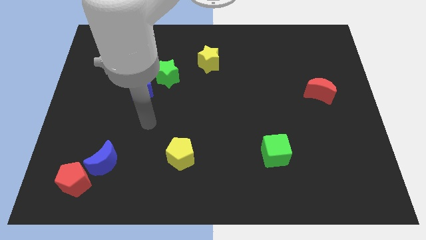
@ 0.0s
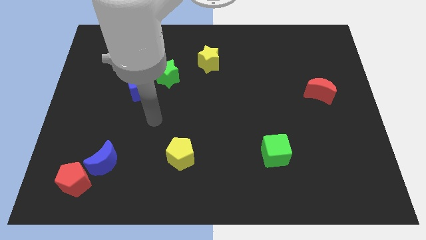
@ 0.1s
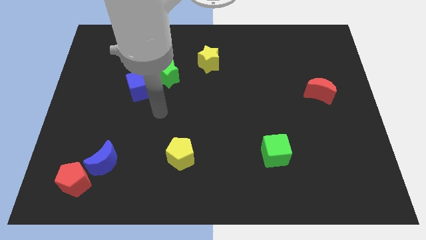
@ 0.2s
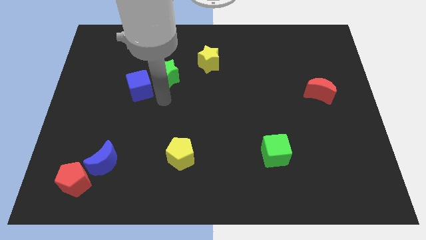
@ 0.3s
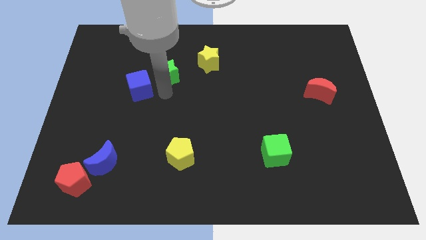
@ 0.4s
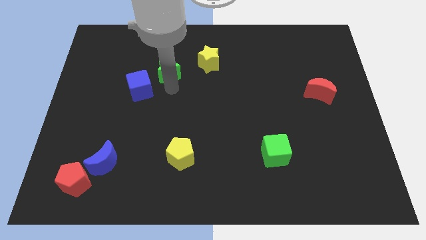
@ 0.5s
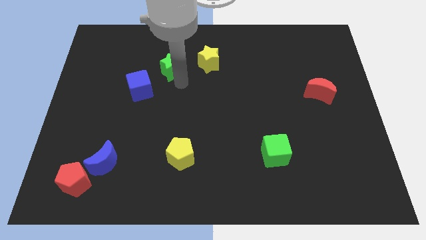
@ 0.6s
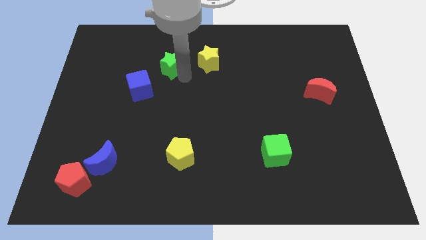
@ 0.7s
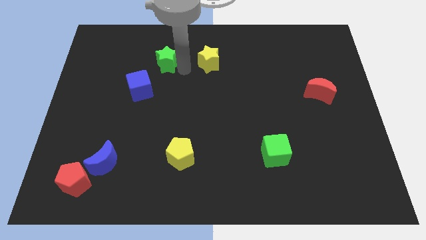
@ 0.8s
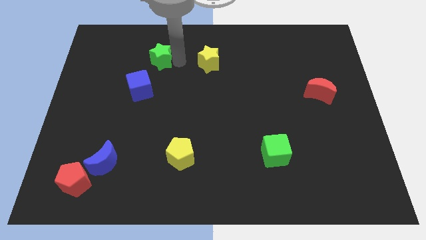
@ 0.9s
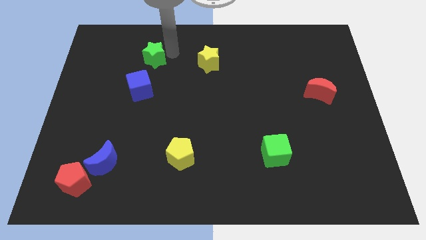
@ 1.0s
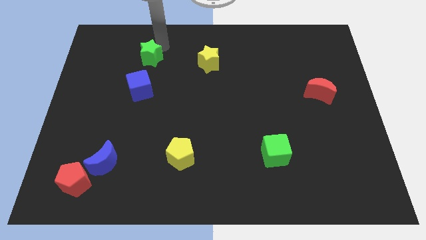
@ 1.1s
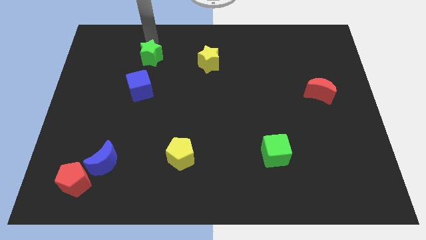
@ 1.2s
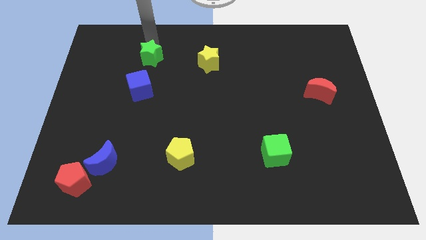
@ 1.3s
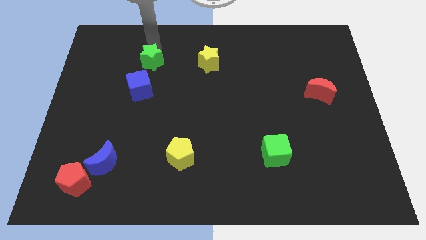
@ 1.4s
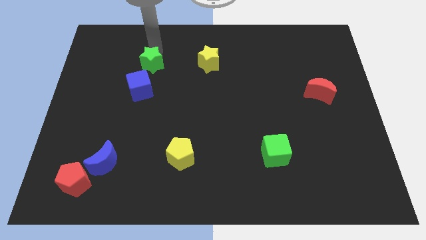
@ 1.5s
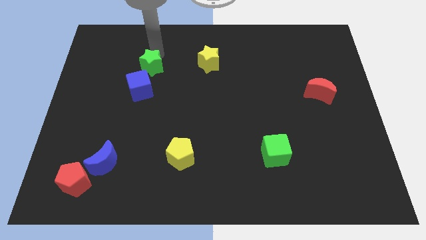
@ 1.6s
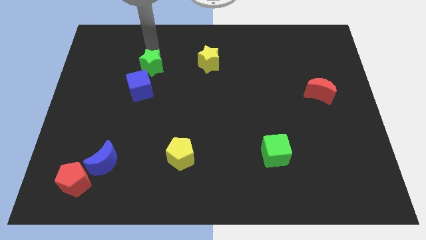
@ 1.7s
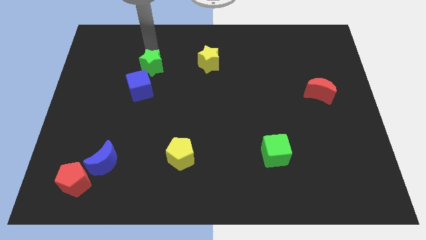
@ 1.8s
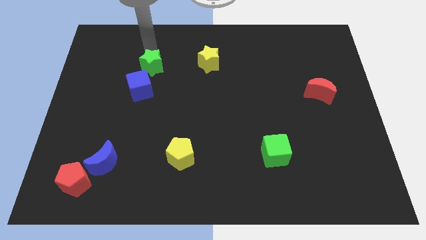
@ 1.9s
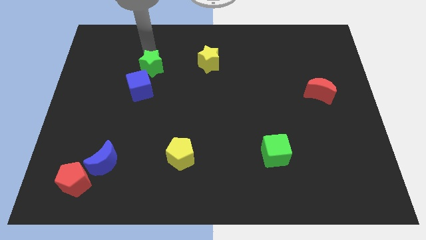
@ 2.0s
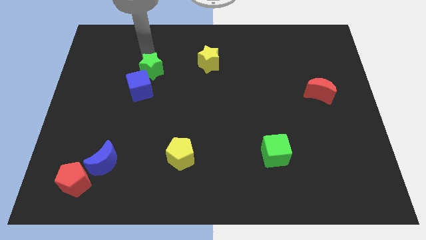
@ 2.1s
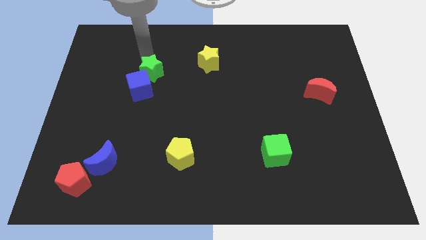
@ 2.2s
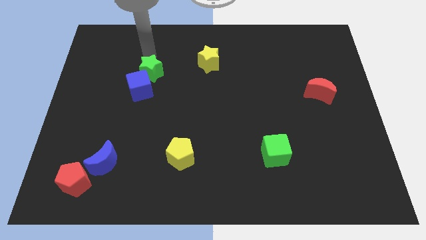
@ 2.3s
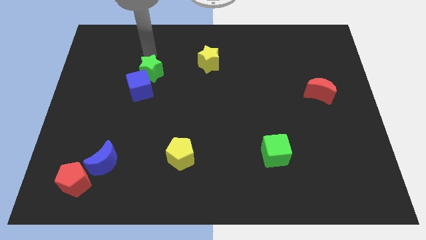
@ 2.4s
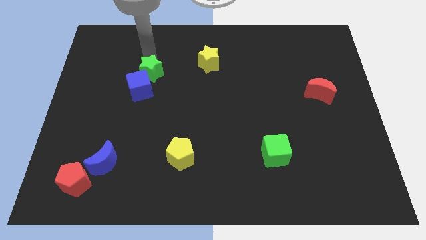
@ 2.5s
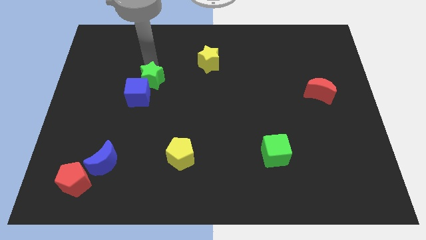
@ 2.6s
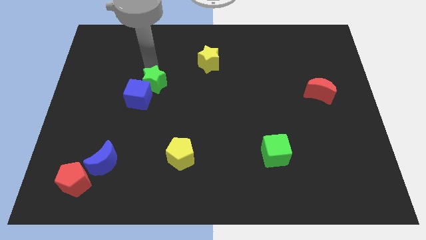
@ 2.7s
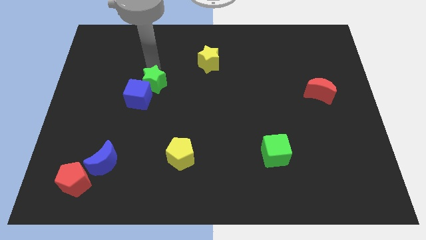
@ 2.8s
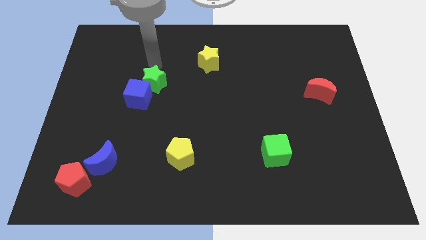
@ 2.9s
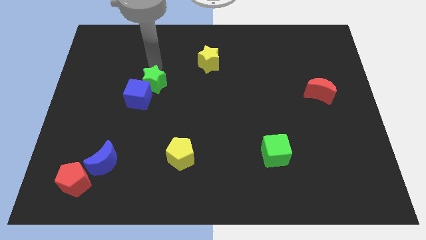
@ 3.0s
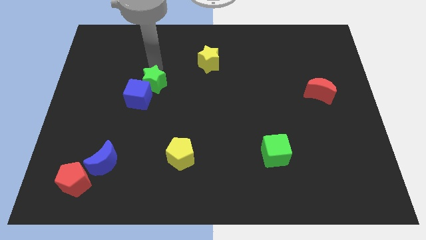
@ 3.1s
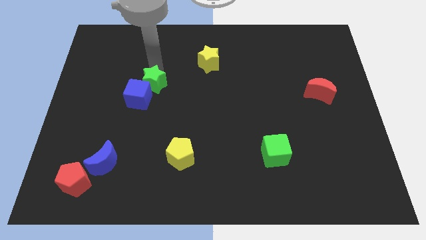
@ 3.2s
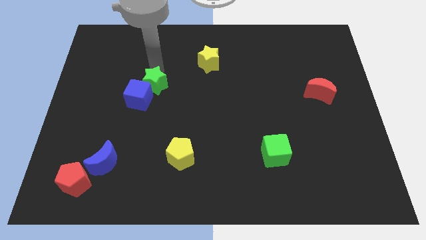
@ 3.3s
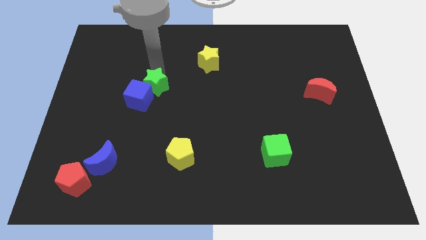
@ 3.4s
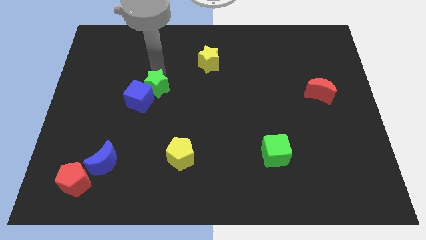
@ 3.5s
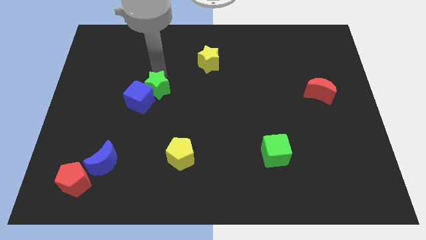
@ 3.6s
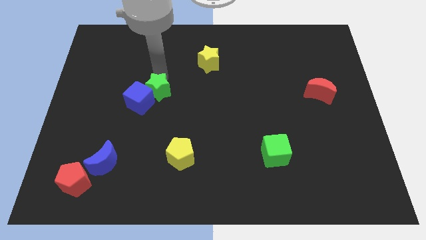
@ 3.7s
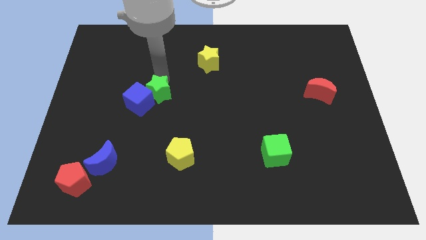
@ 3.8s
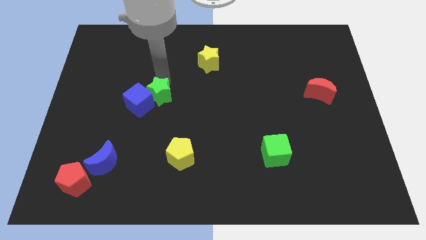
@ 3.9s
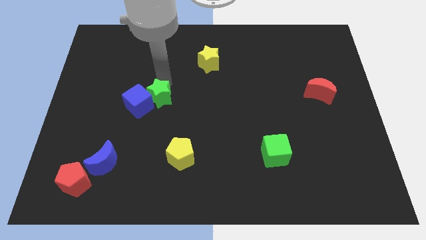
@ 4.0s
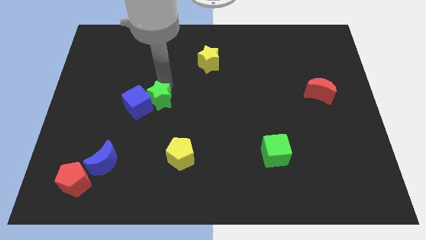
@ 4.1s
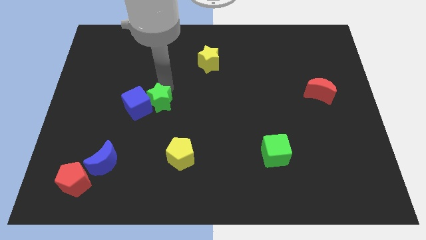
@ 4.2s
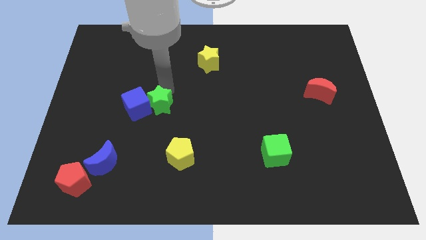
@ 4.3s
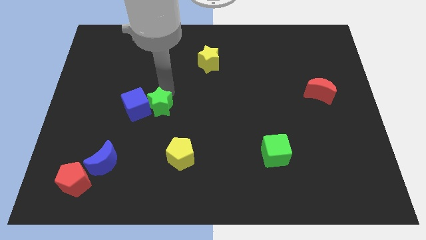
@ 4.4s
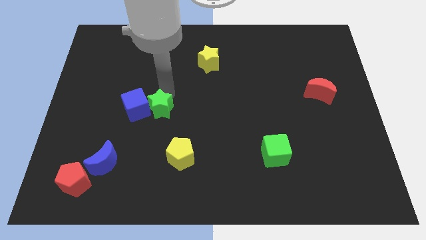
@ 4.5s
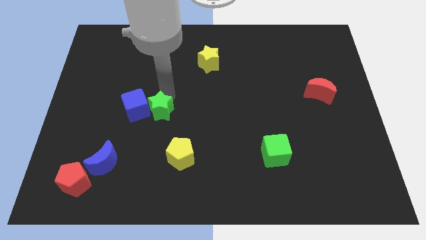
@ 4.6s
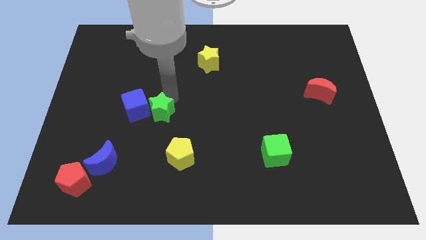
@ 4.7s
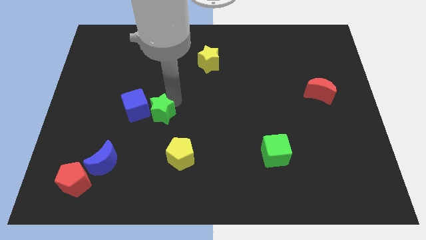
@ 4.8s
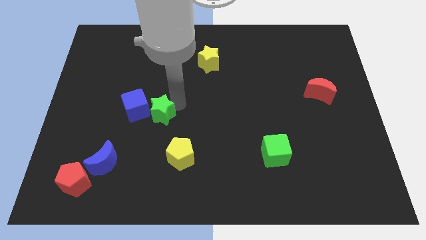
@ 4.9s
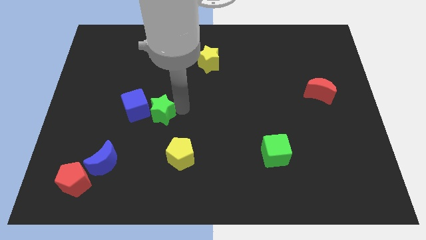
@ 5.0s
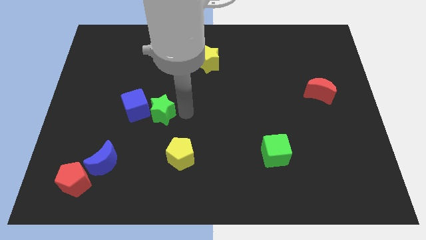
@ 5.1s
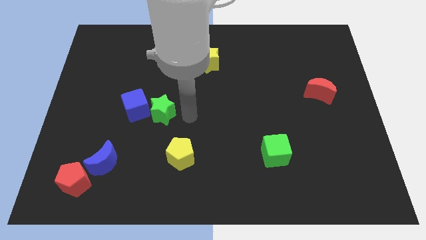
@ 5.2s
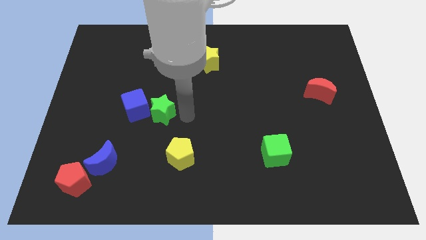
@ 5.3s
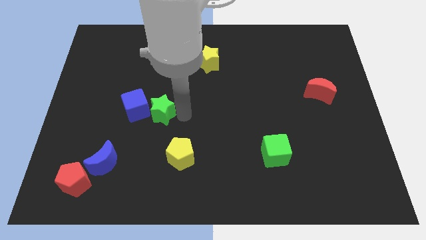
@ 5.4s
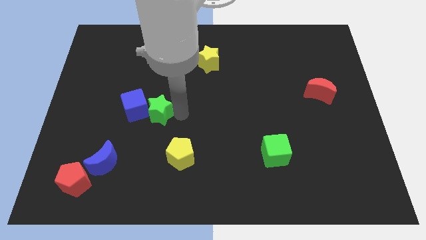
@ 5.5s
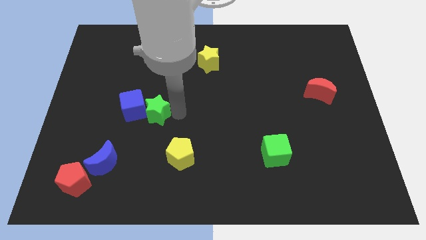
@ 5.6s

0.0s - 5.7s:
push the green star a little downwards and to the left diagonally

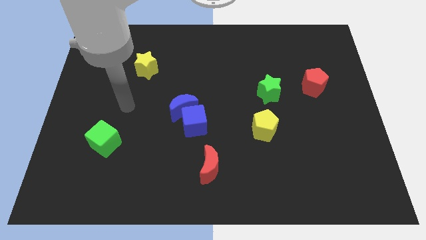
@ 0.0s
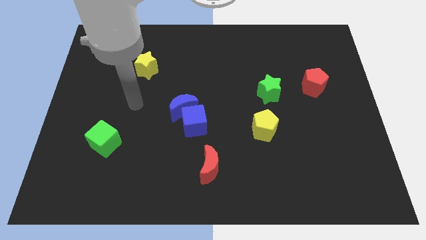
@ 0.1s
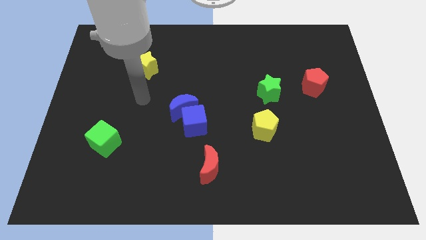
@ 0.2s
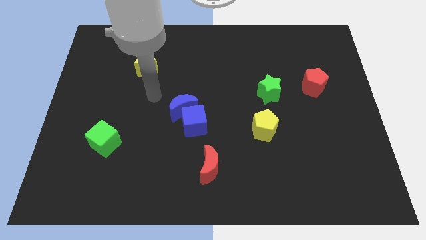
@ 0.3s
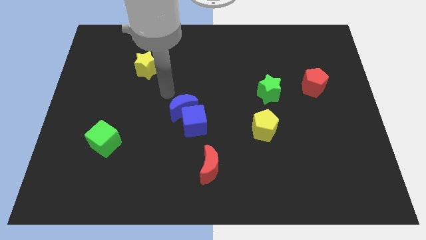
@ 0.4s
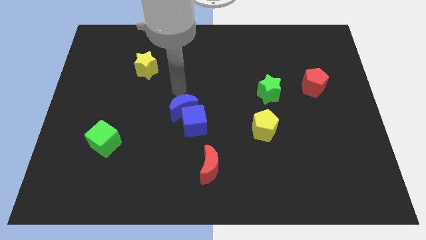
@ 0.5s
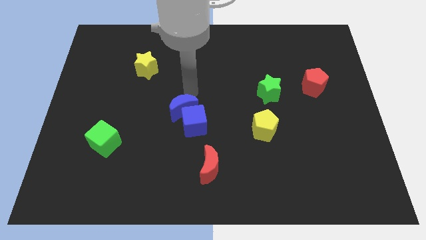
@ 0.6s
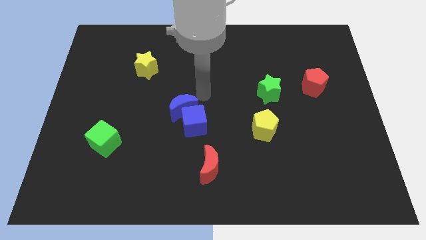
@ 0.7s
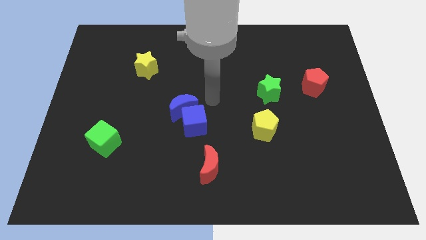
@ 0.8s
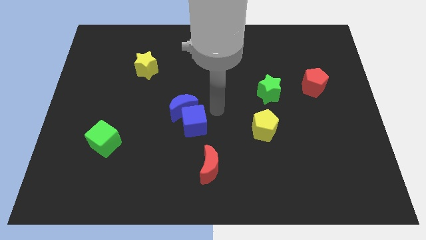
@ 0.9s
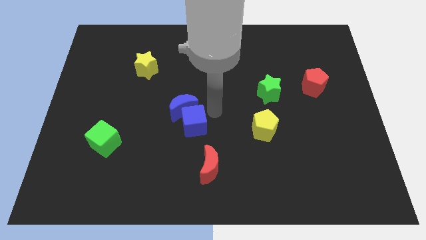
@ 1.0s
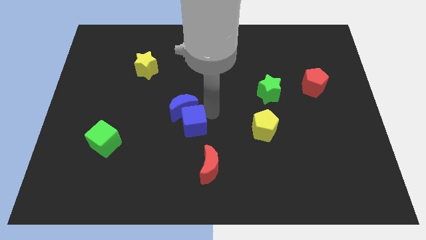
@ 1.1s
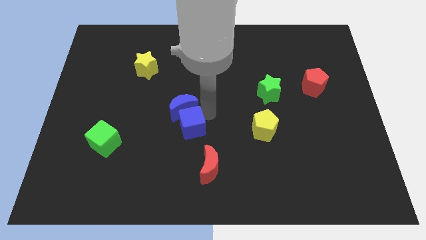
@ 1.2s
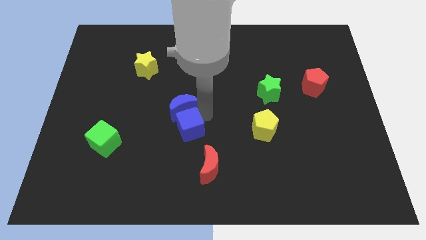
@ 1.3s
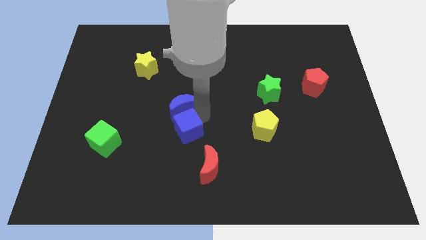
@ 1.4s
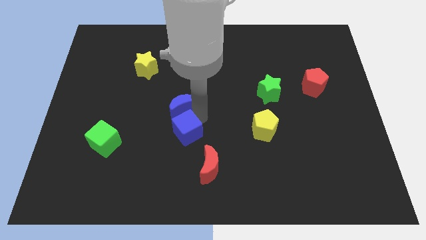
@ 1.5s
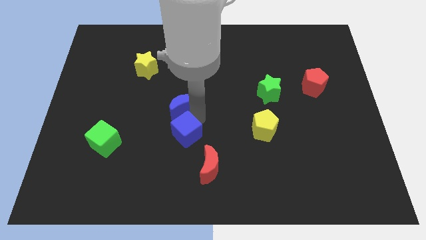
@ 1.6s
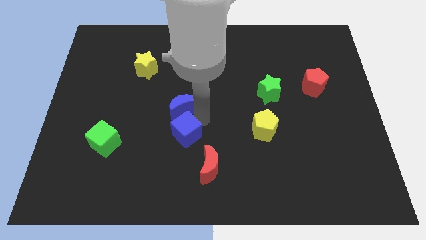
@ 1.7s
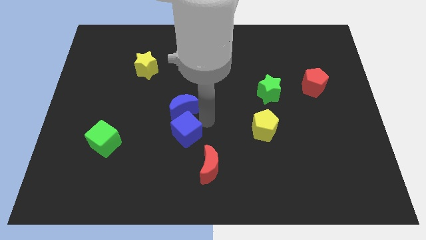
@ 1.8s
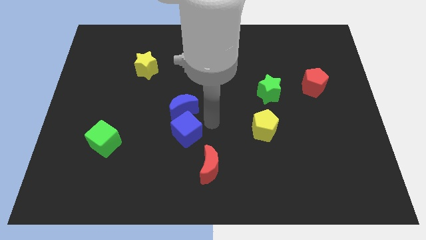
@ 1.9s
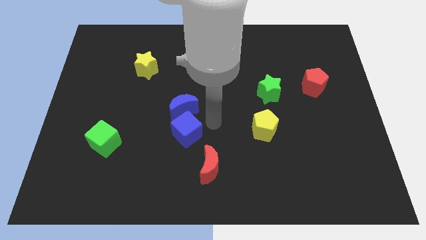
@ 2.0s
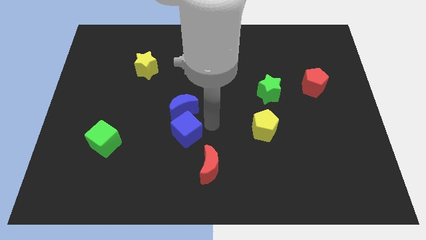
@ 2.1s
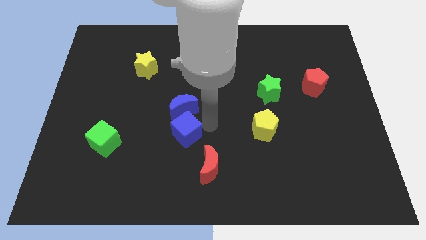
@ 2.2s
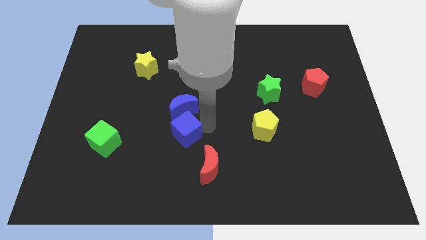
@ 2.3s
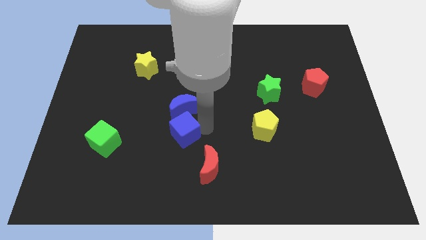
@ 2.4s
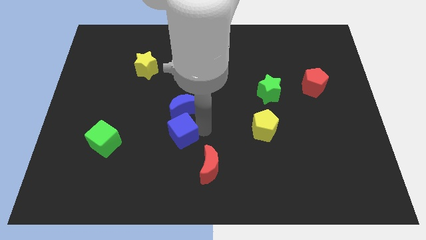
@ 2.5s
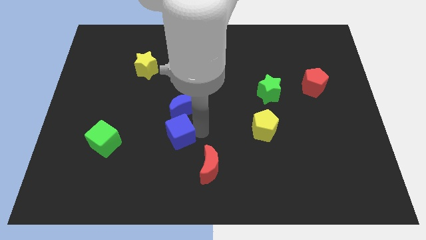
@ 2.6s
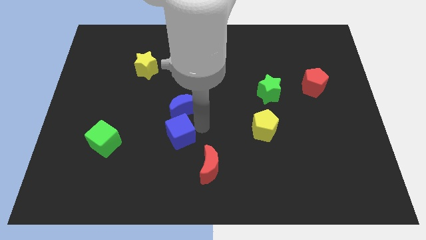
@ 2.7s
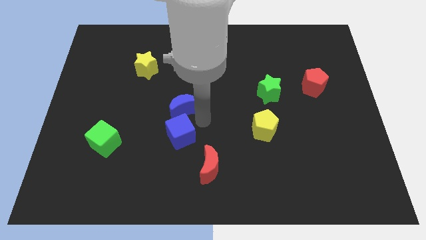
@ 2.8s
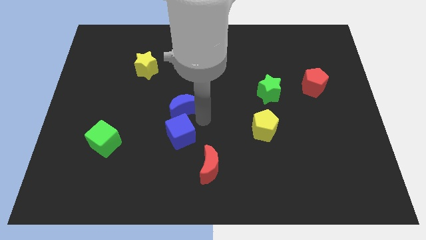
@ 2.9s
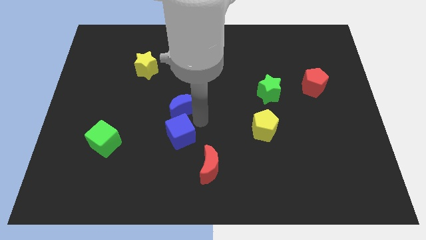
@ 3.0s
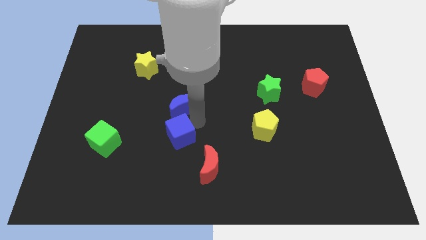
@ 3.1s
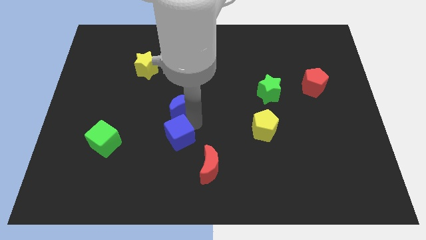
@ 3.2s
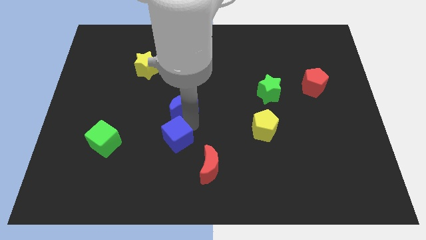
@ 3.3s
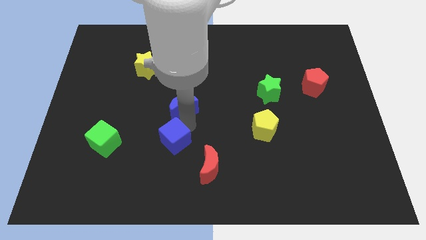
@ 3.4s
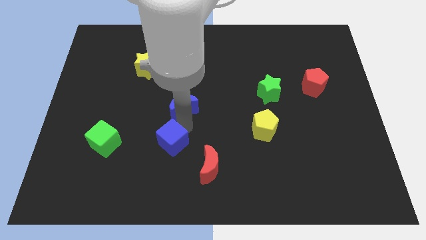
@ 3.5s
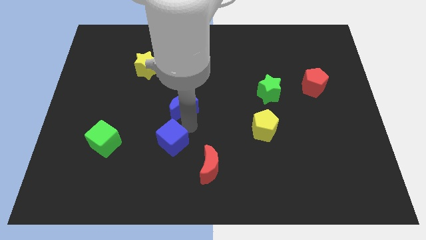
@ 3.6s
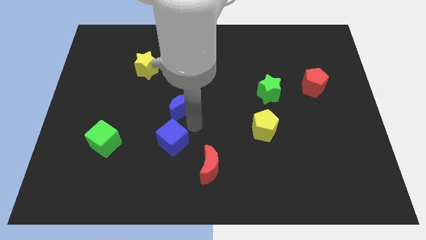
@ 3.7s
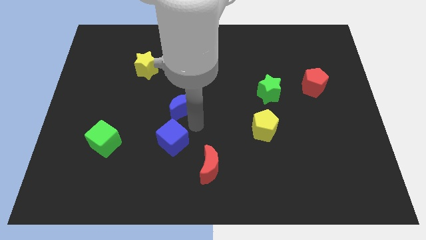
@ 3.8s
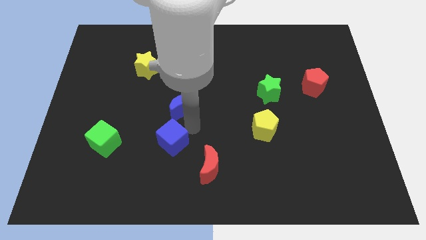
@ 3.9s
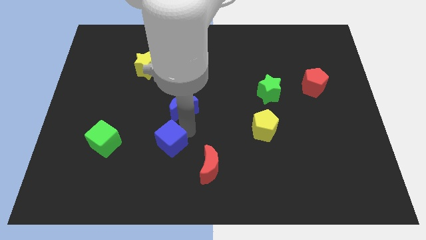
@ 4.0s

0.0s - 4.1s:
move the blue cube diagonally down and to the left a little bit
